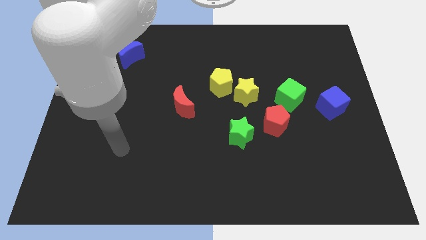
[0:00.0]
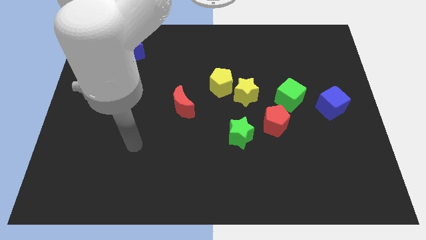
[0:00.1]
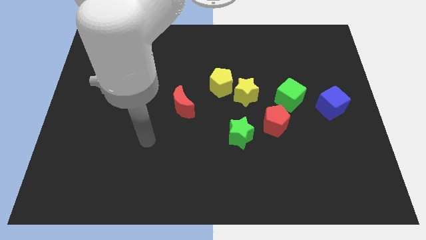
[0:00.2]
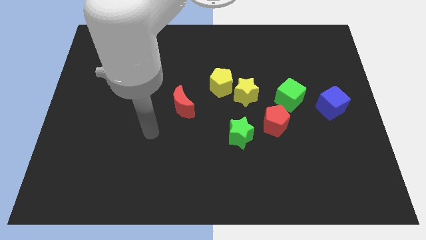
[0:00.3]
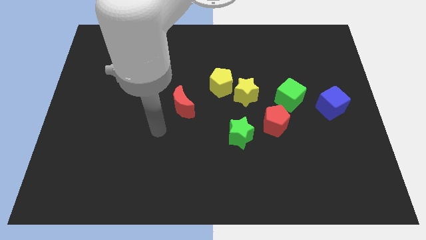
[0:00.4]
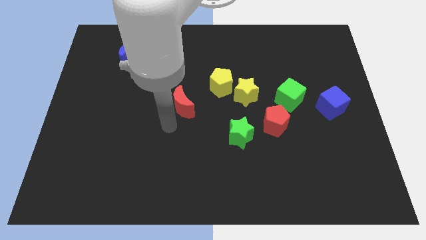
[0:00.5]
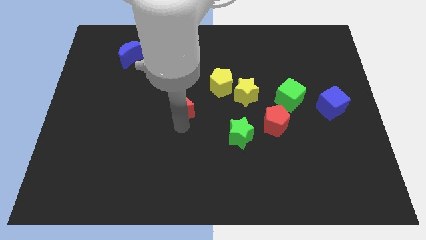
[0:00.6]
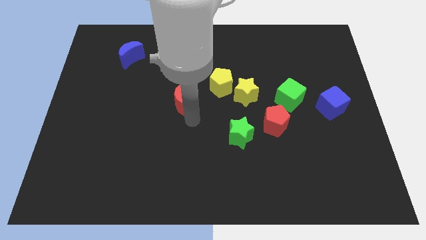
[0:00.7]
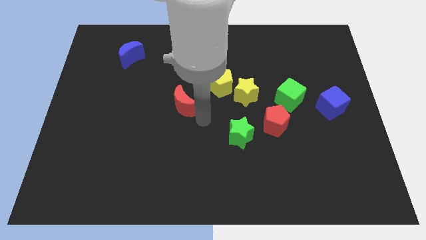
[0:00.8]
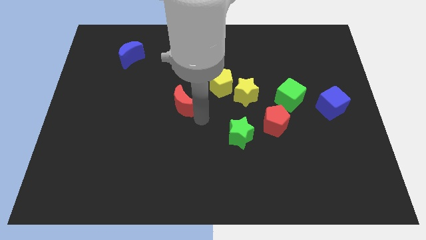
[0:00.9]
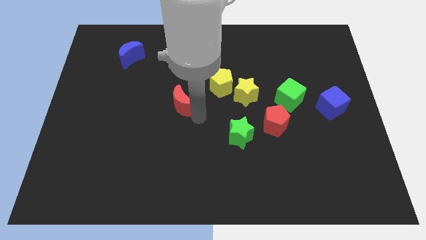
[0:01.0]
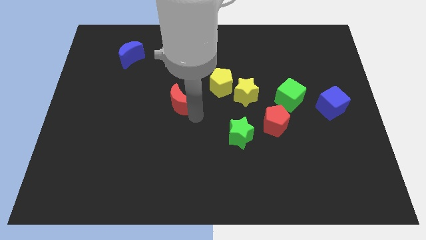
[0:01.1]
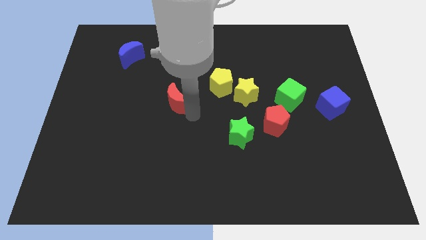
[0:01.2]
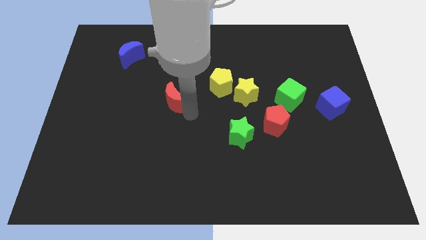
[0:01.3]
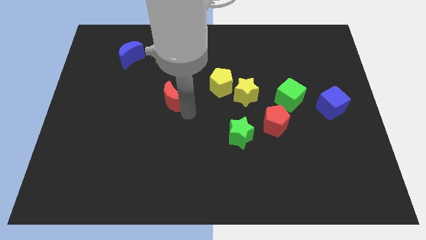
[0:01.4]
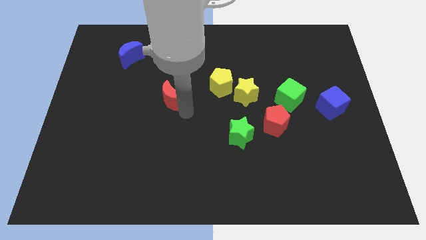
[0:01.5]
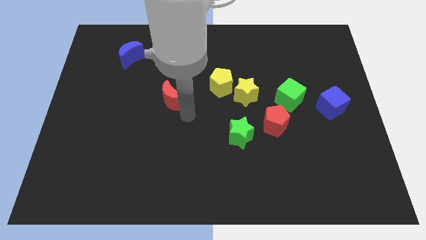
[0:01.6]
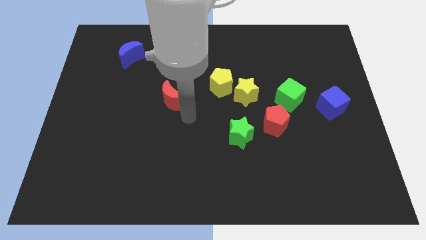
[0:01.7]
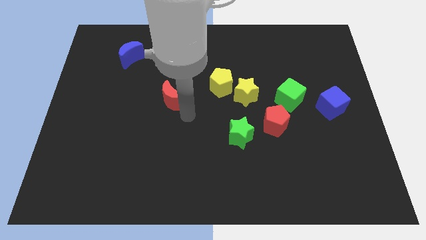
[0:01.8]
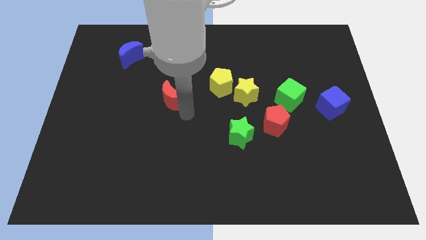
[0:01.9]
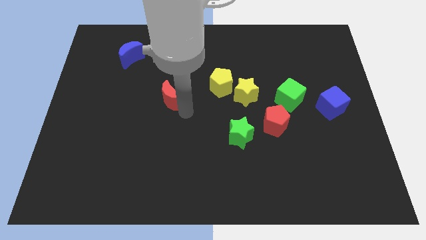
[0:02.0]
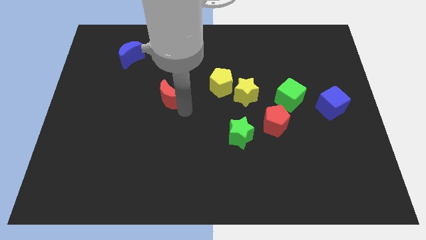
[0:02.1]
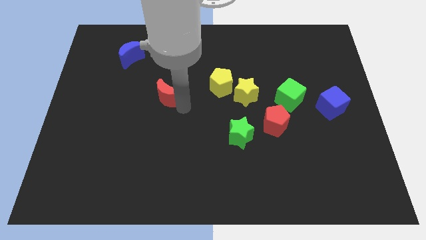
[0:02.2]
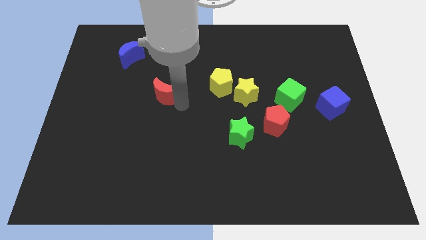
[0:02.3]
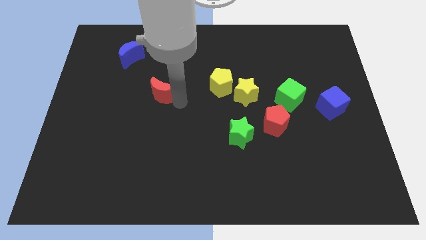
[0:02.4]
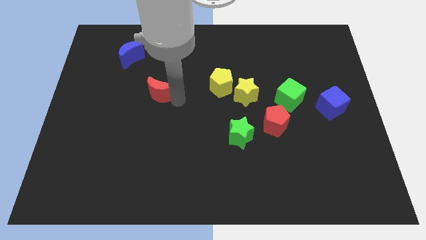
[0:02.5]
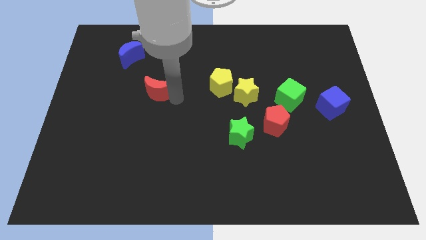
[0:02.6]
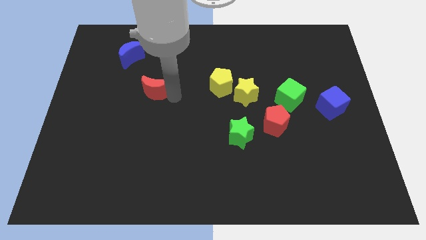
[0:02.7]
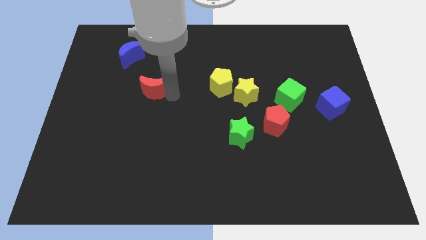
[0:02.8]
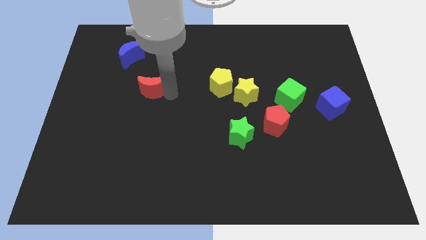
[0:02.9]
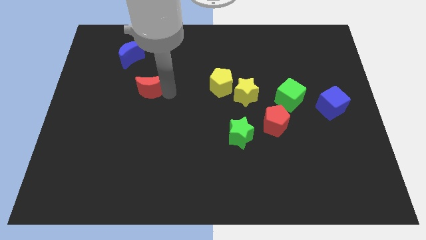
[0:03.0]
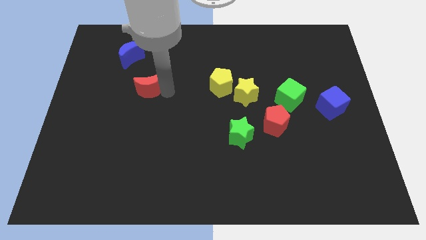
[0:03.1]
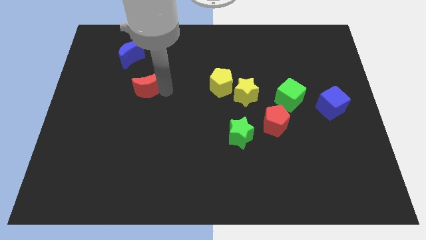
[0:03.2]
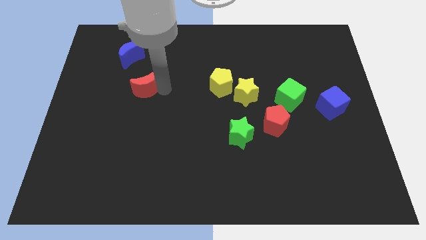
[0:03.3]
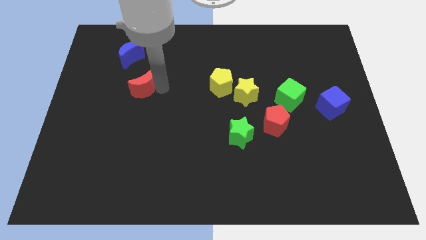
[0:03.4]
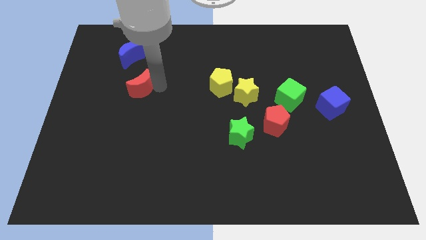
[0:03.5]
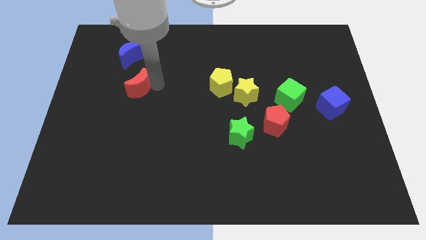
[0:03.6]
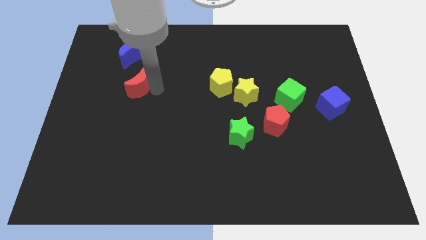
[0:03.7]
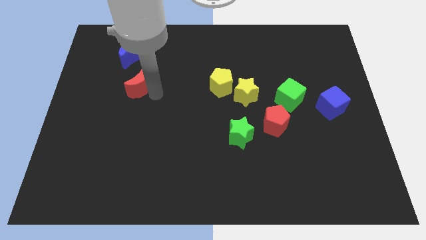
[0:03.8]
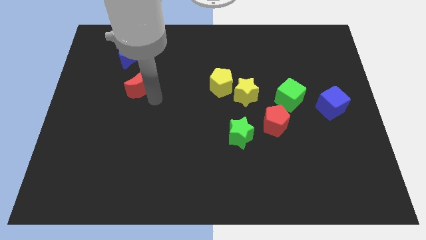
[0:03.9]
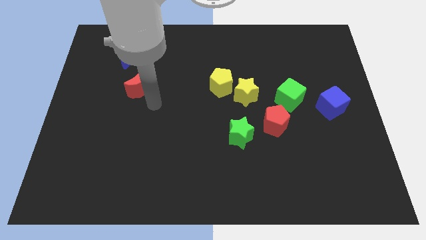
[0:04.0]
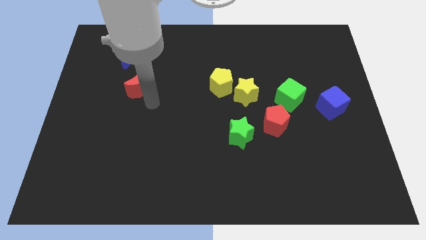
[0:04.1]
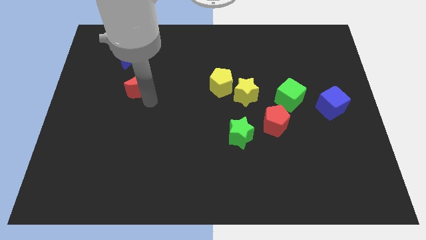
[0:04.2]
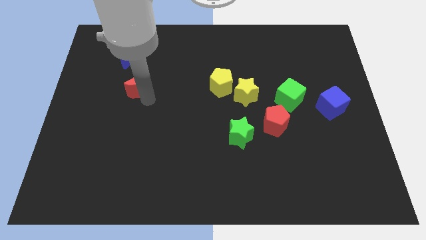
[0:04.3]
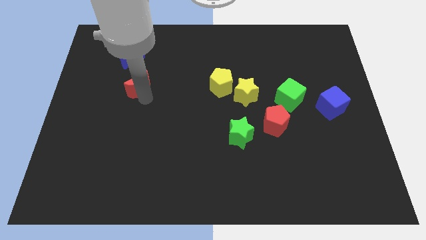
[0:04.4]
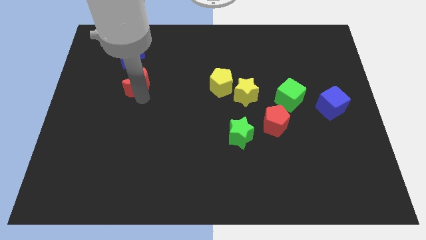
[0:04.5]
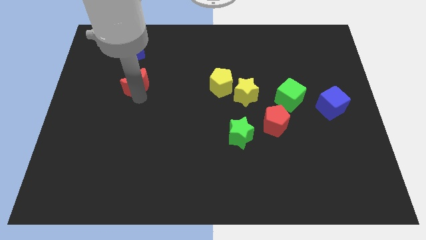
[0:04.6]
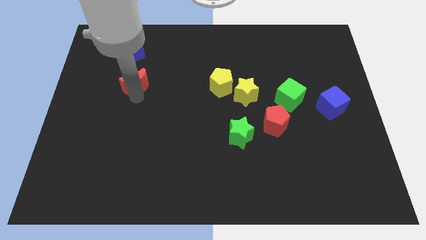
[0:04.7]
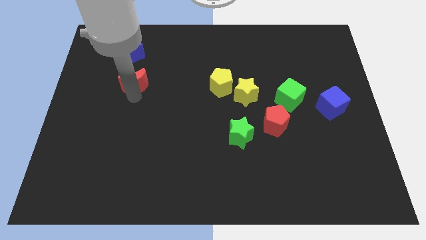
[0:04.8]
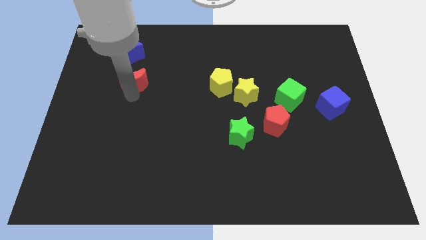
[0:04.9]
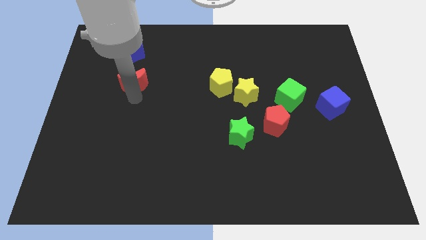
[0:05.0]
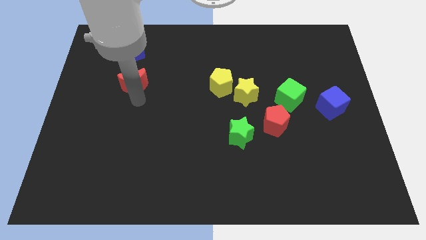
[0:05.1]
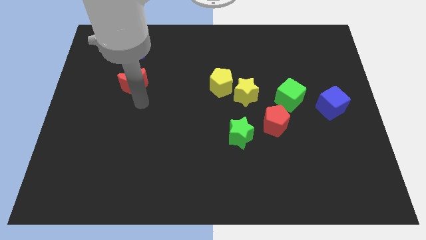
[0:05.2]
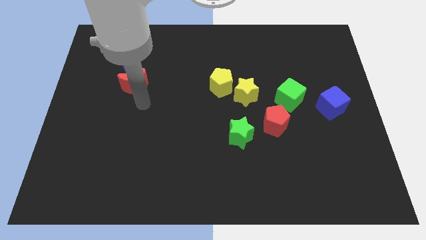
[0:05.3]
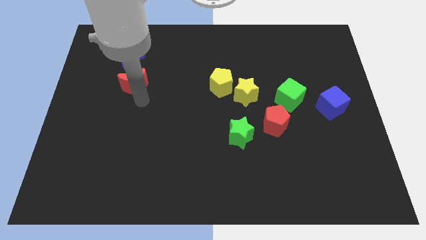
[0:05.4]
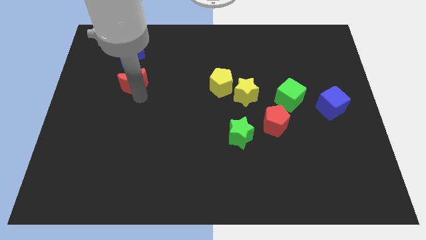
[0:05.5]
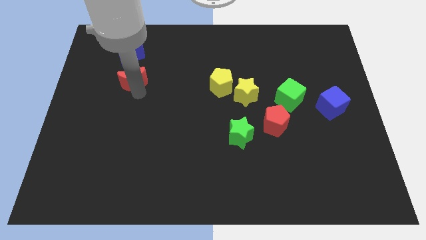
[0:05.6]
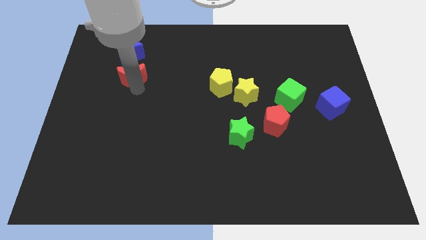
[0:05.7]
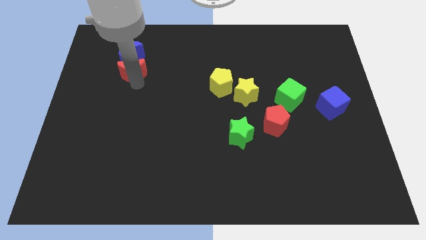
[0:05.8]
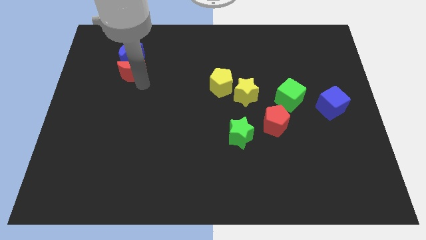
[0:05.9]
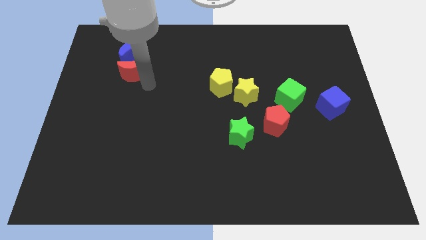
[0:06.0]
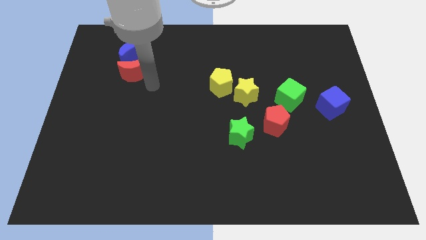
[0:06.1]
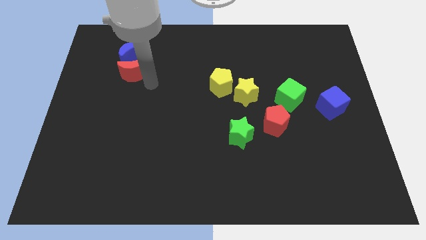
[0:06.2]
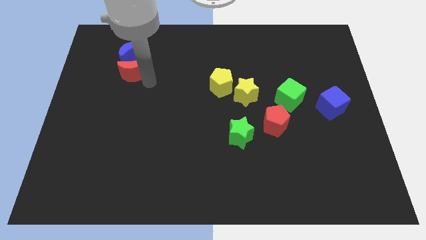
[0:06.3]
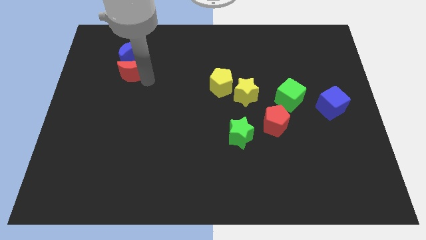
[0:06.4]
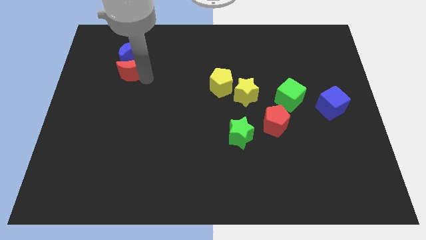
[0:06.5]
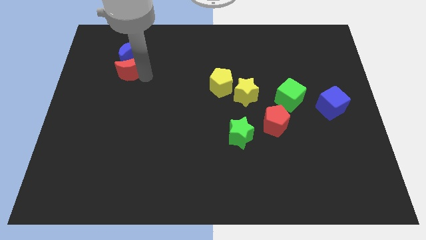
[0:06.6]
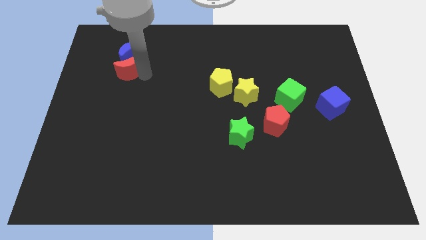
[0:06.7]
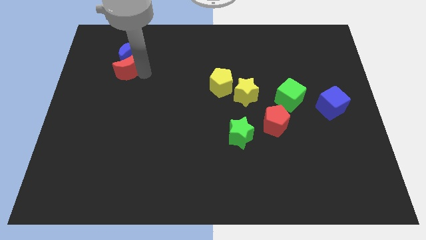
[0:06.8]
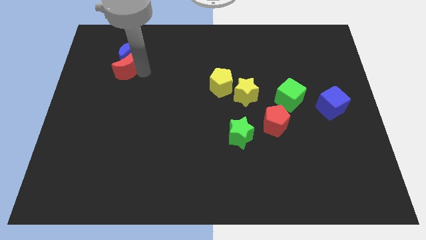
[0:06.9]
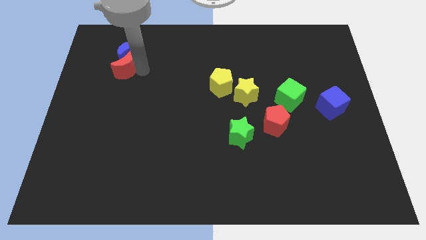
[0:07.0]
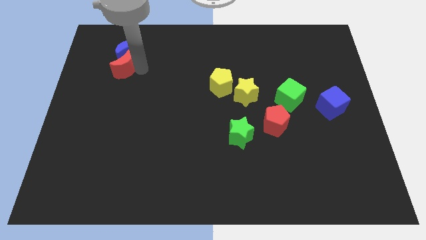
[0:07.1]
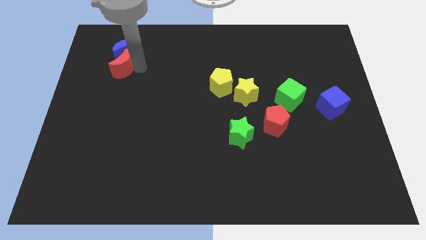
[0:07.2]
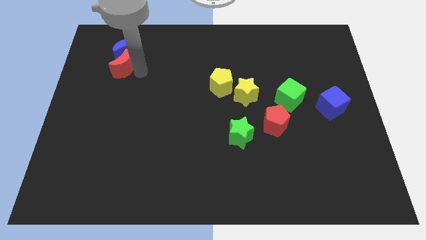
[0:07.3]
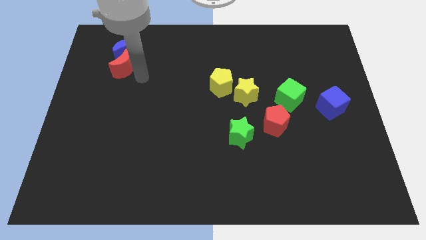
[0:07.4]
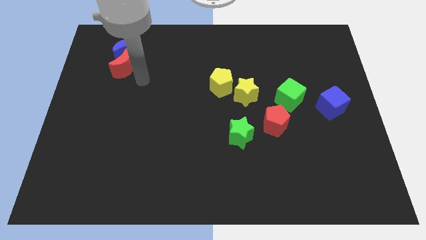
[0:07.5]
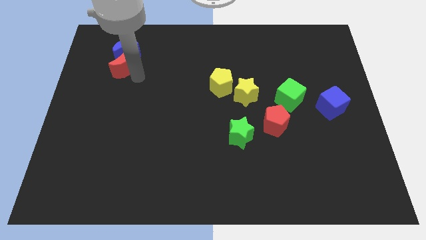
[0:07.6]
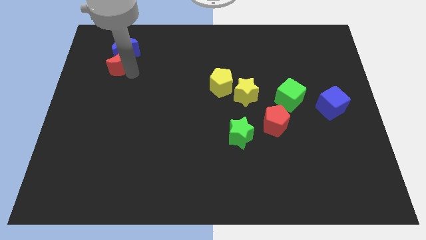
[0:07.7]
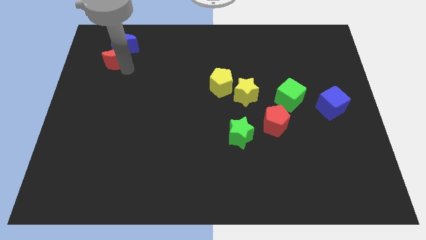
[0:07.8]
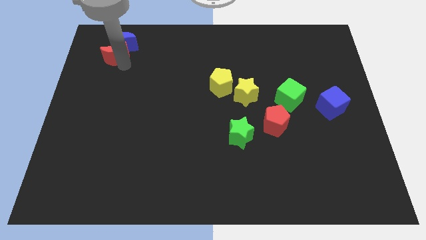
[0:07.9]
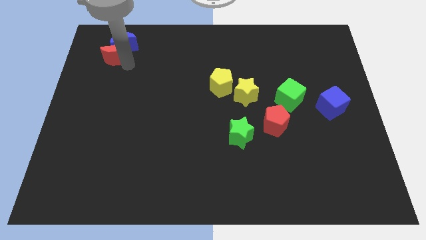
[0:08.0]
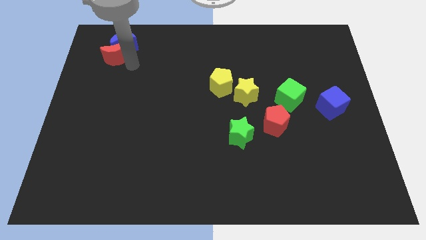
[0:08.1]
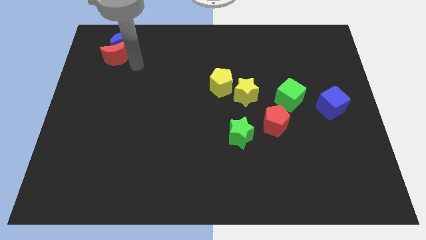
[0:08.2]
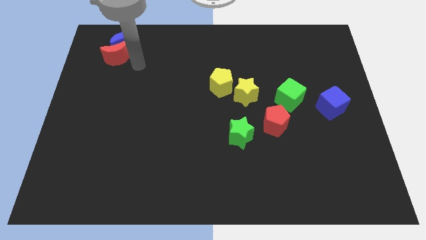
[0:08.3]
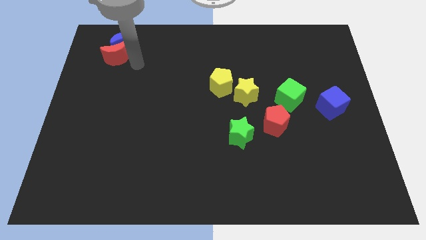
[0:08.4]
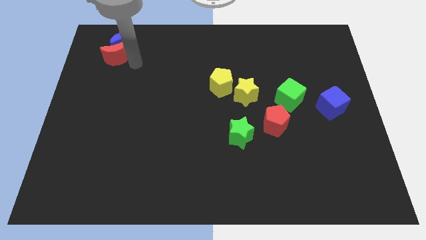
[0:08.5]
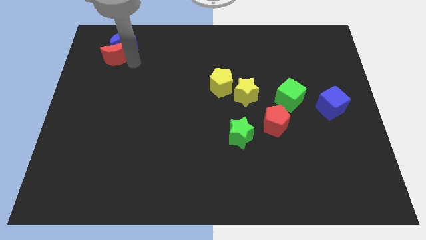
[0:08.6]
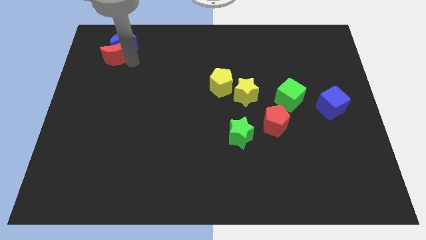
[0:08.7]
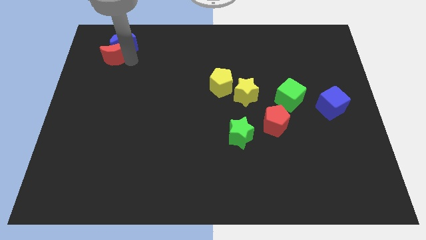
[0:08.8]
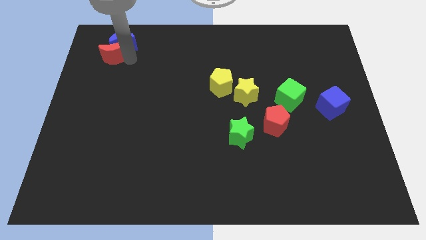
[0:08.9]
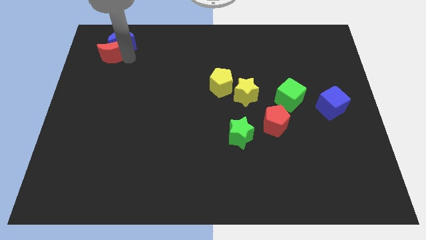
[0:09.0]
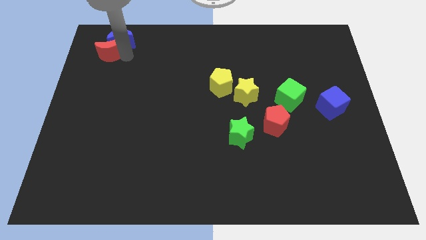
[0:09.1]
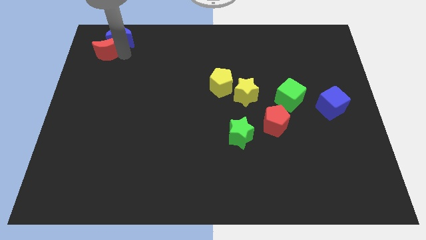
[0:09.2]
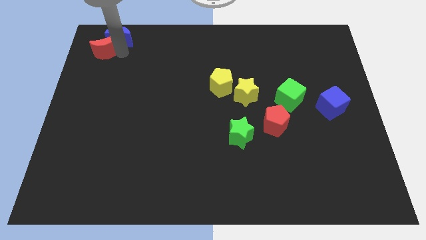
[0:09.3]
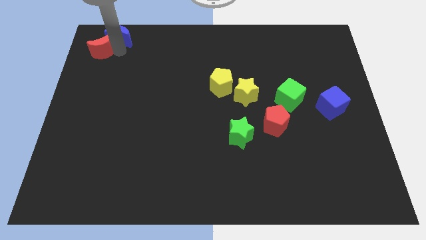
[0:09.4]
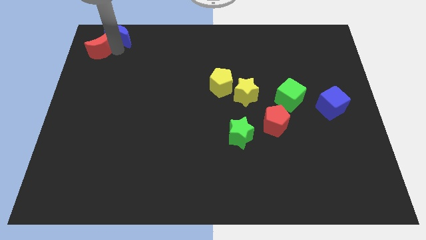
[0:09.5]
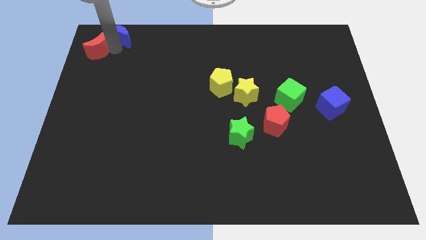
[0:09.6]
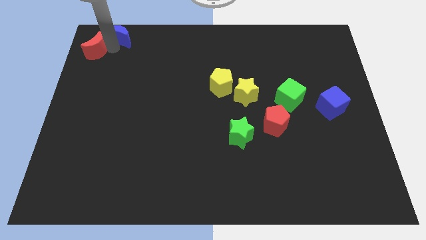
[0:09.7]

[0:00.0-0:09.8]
slide the red moon to the top left
